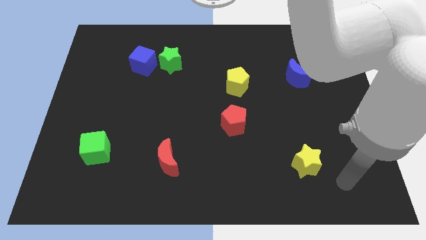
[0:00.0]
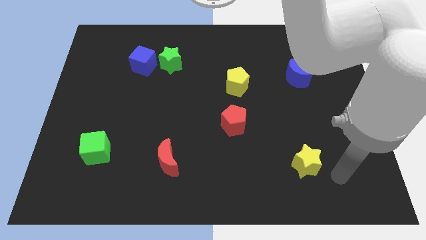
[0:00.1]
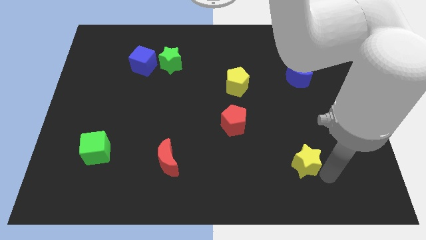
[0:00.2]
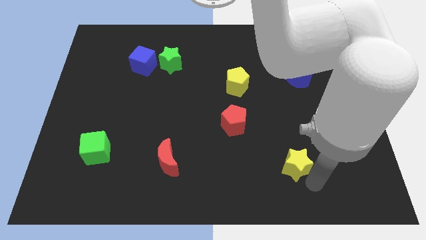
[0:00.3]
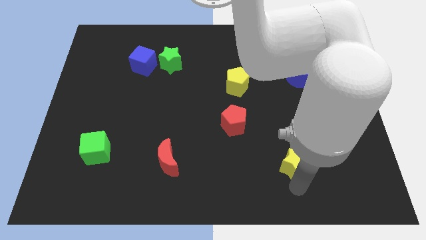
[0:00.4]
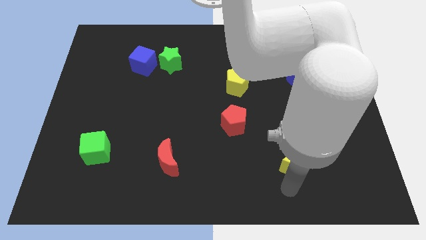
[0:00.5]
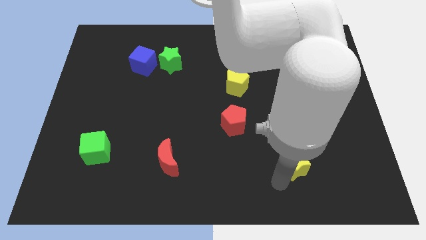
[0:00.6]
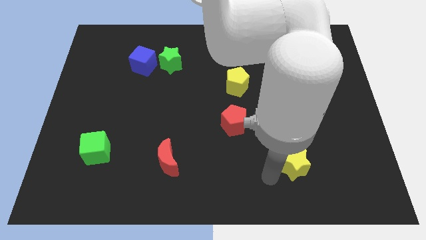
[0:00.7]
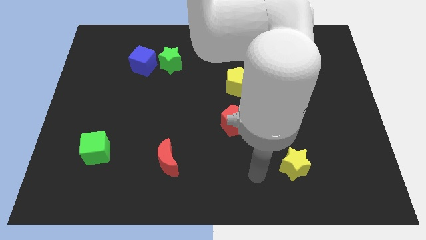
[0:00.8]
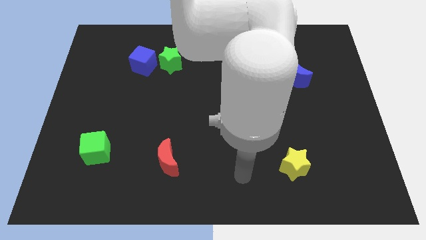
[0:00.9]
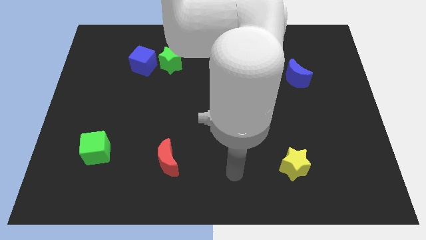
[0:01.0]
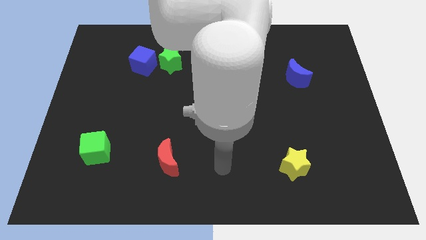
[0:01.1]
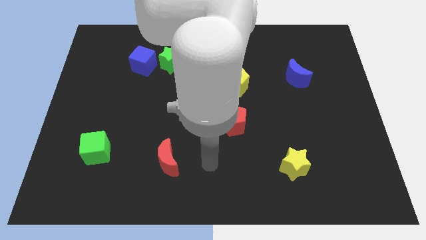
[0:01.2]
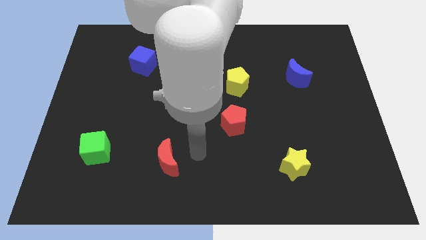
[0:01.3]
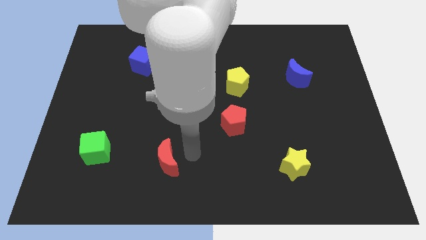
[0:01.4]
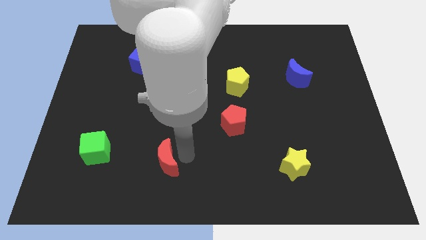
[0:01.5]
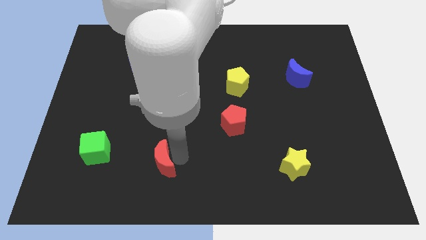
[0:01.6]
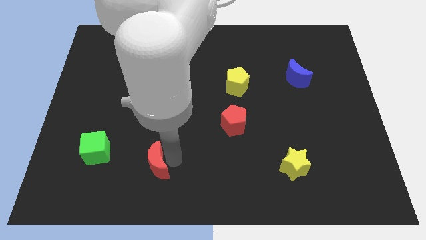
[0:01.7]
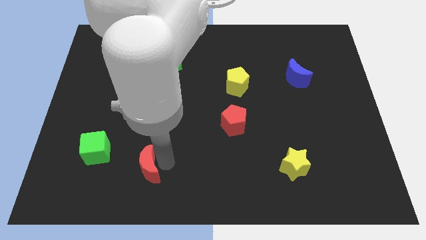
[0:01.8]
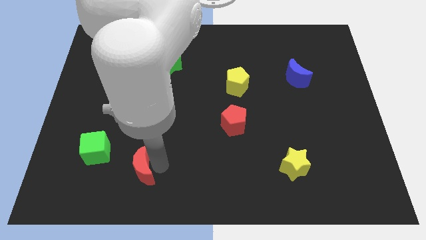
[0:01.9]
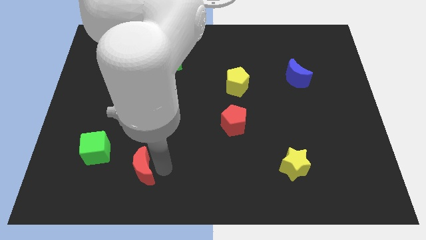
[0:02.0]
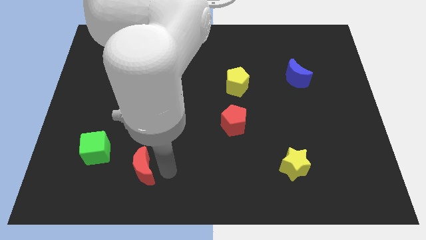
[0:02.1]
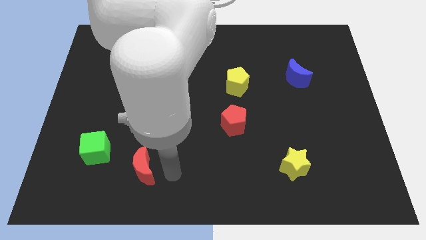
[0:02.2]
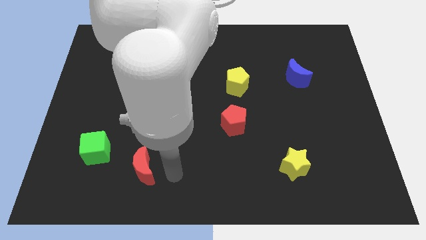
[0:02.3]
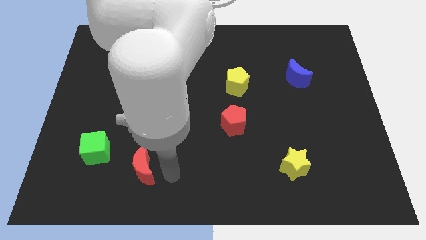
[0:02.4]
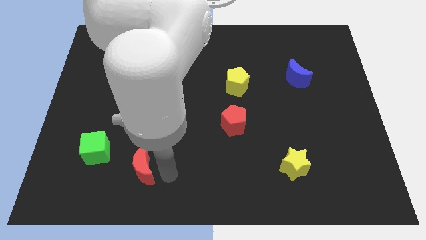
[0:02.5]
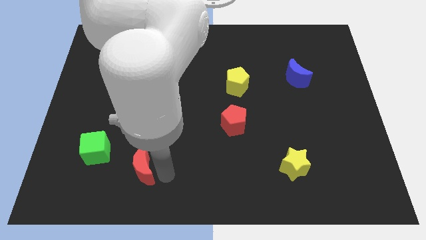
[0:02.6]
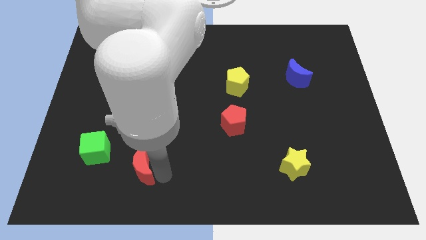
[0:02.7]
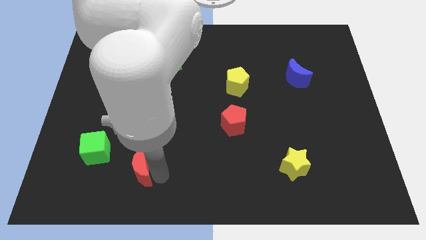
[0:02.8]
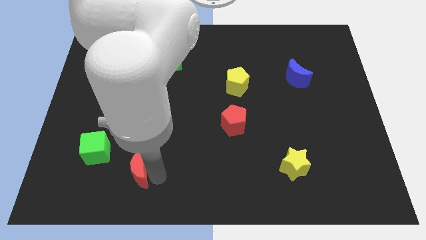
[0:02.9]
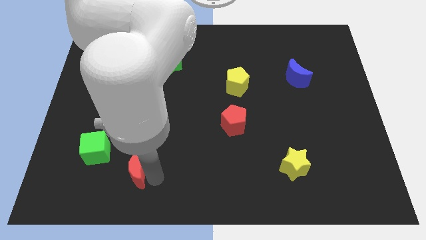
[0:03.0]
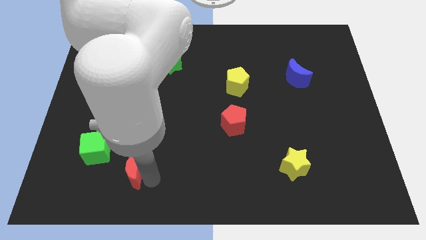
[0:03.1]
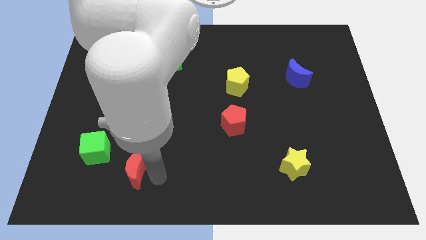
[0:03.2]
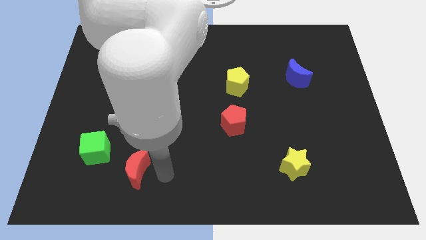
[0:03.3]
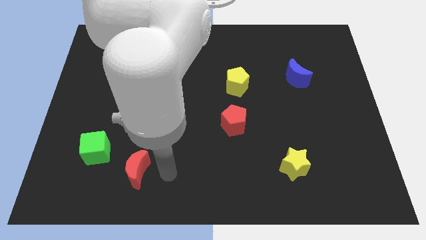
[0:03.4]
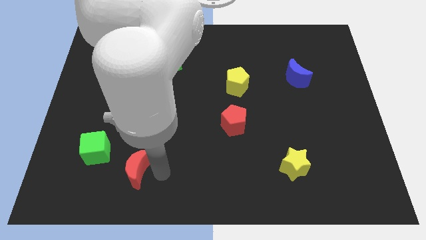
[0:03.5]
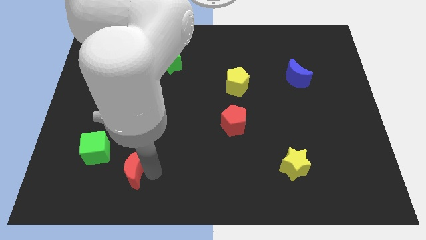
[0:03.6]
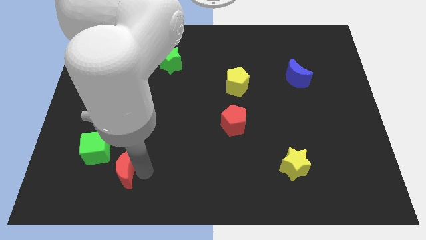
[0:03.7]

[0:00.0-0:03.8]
push the red moon to the left a little bit

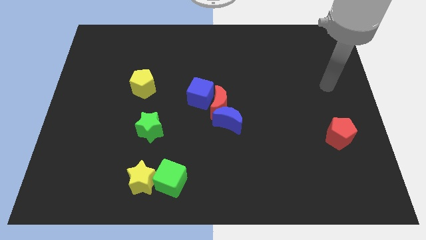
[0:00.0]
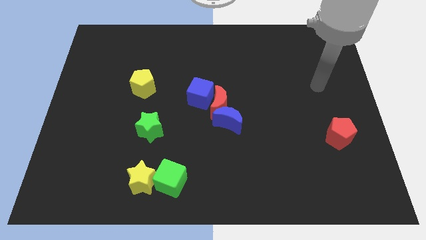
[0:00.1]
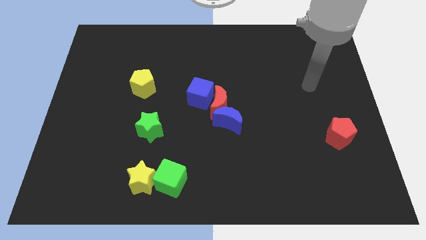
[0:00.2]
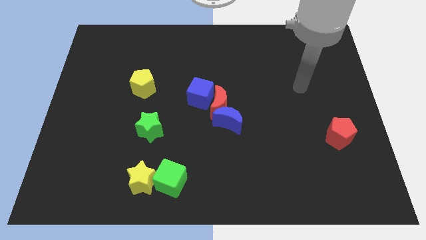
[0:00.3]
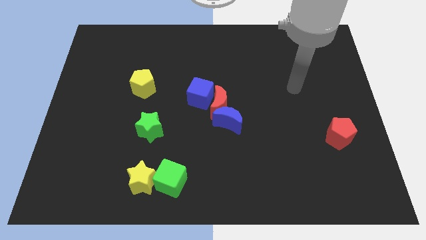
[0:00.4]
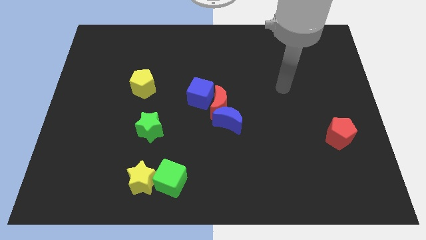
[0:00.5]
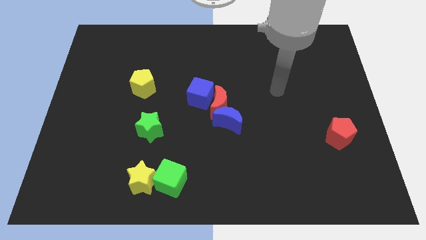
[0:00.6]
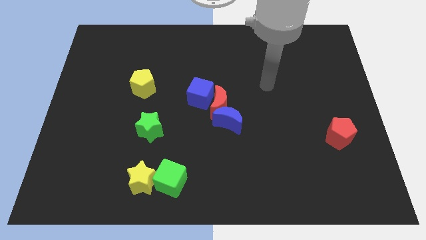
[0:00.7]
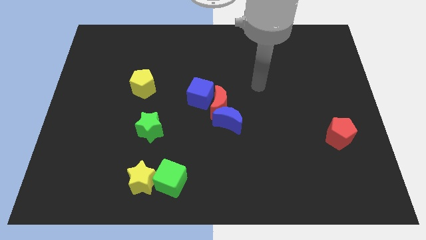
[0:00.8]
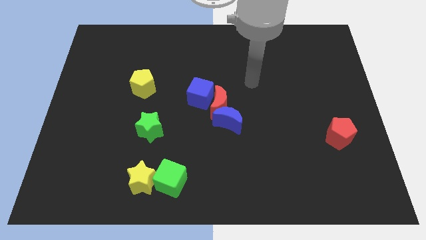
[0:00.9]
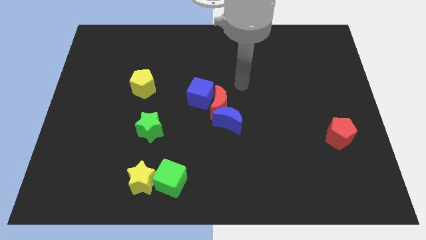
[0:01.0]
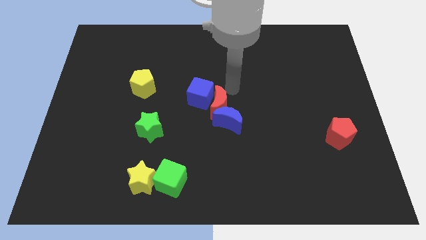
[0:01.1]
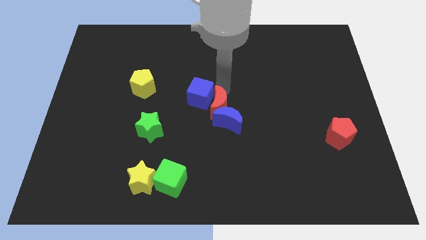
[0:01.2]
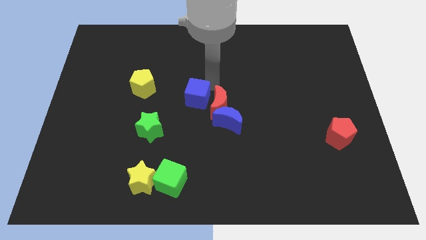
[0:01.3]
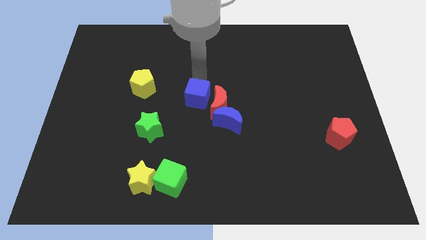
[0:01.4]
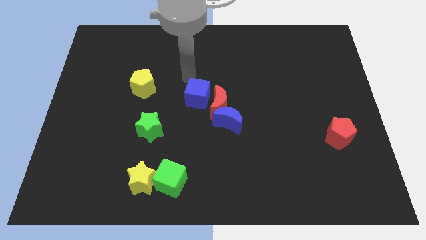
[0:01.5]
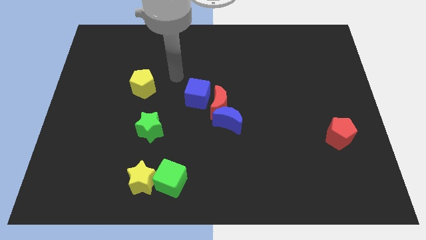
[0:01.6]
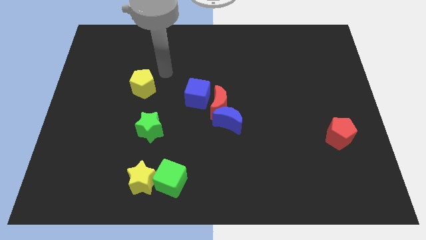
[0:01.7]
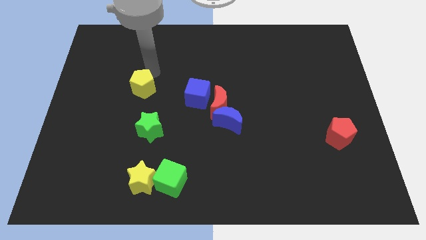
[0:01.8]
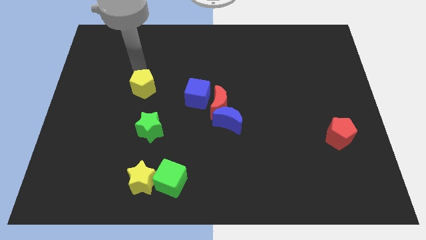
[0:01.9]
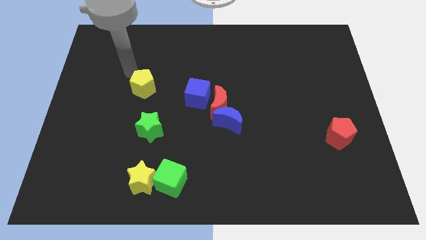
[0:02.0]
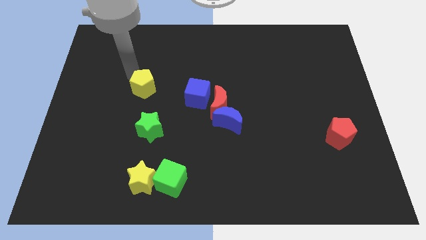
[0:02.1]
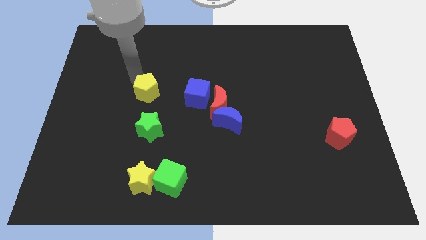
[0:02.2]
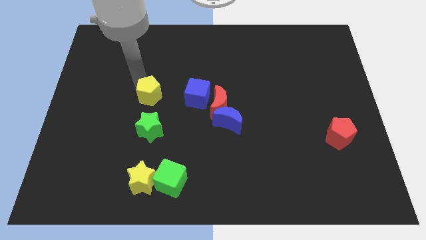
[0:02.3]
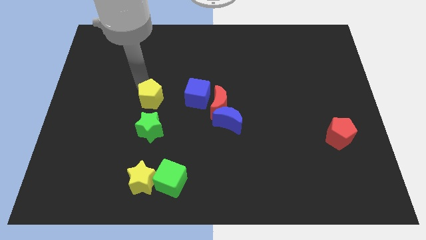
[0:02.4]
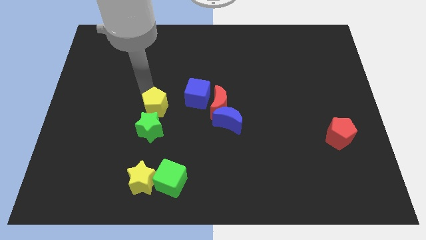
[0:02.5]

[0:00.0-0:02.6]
slightly move the yellow pentagon downwards and right

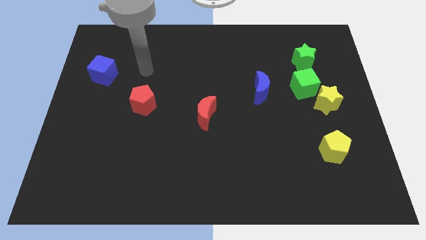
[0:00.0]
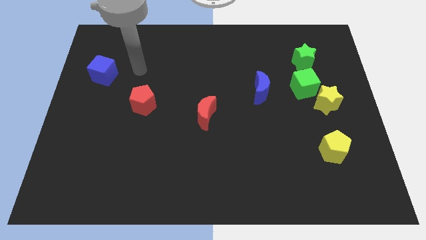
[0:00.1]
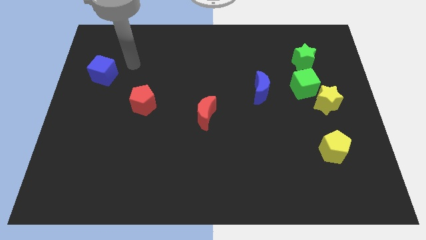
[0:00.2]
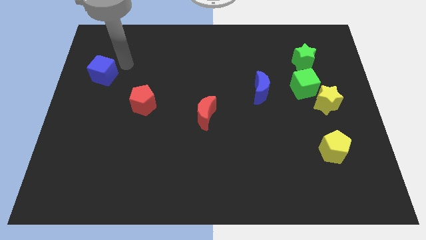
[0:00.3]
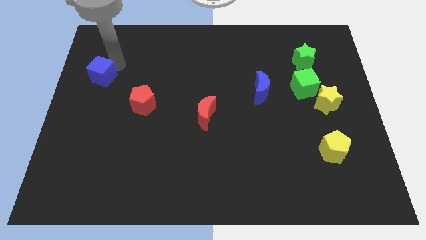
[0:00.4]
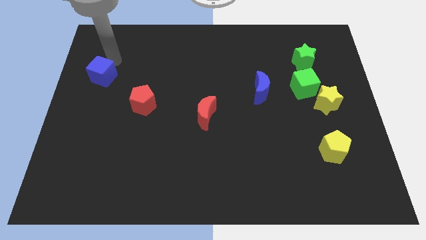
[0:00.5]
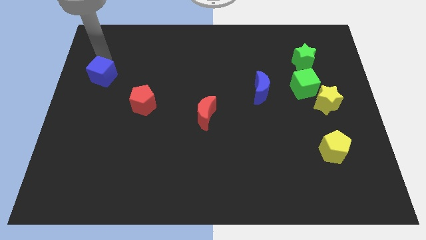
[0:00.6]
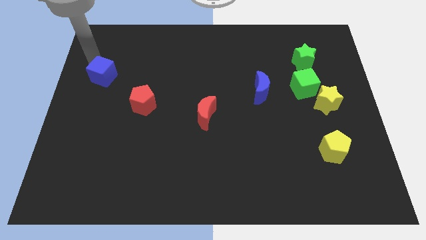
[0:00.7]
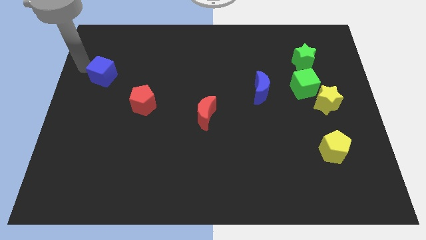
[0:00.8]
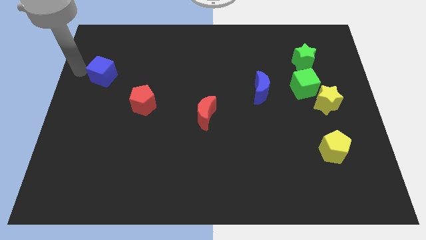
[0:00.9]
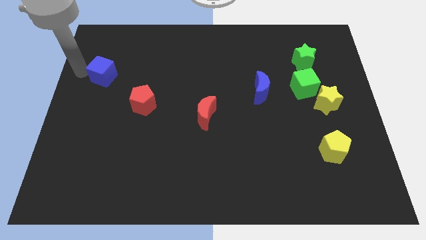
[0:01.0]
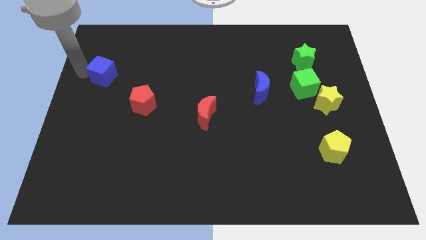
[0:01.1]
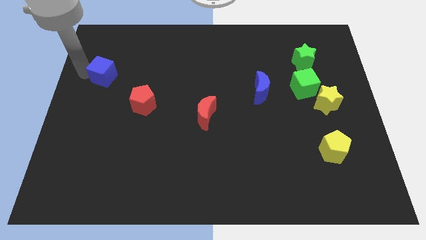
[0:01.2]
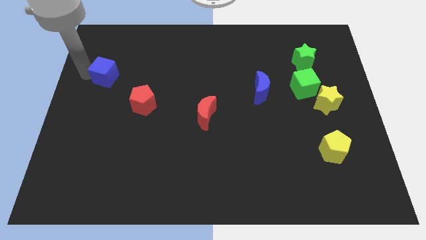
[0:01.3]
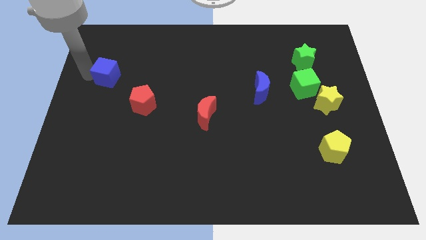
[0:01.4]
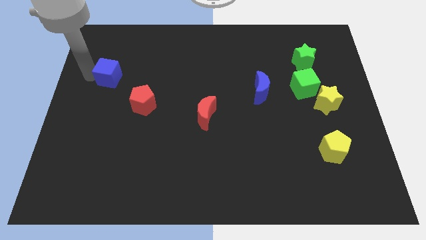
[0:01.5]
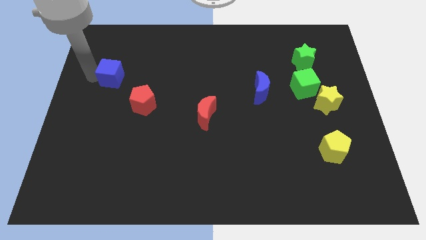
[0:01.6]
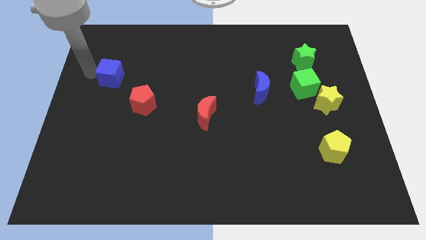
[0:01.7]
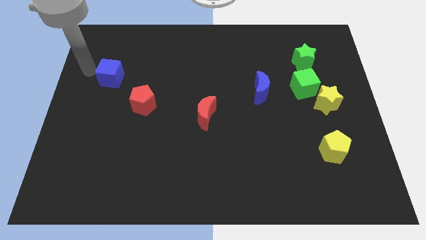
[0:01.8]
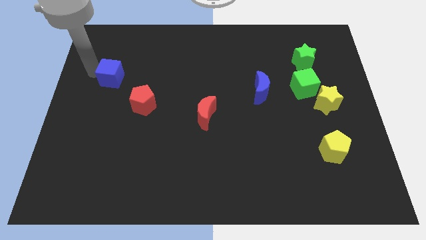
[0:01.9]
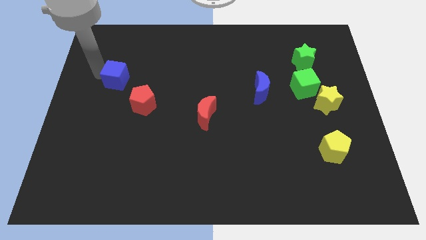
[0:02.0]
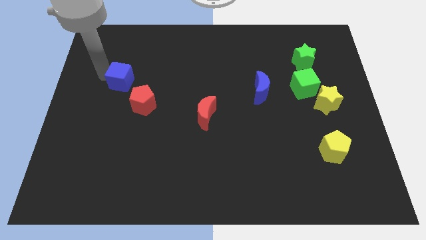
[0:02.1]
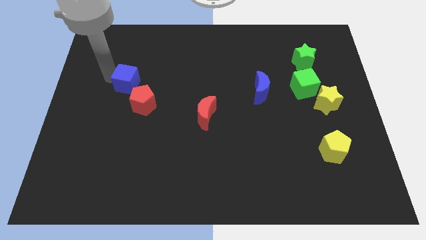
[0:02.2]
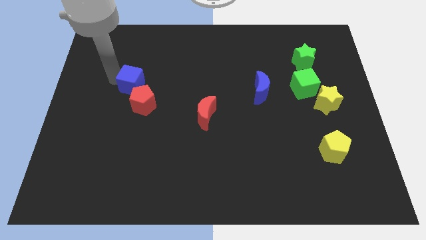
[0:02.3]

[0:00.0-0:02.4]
move the blue cube a bit diagonally down and right
